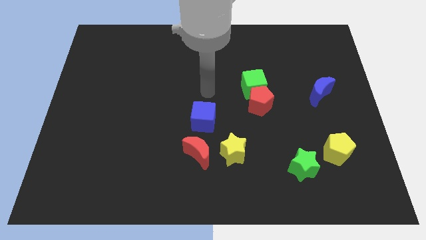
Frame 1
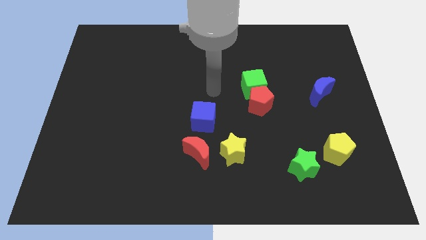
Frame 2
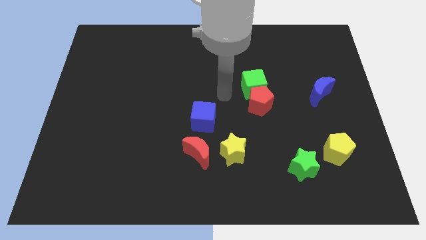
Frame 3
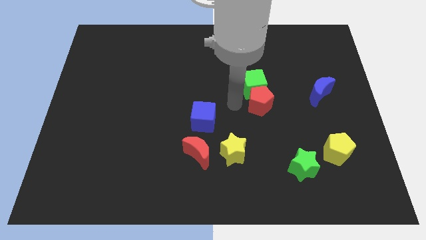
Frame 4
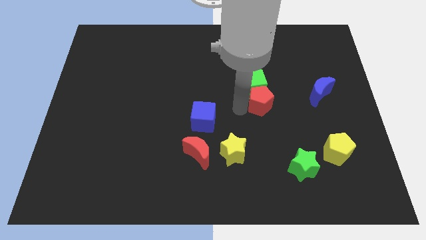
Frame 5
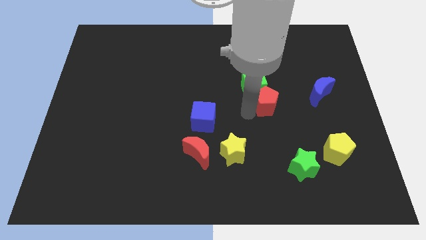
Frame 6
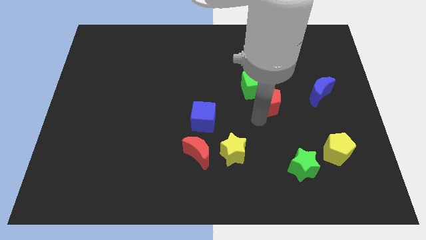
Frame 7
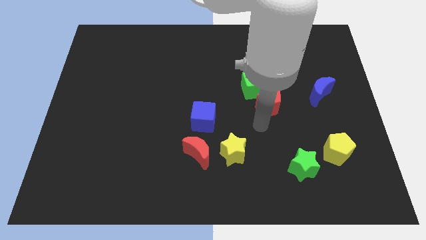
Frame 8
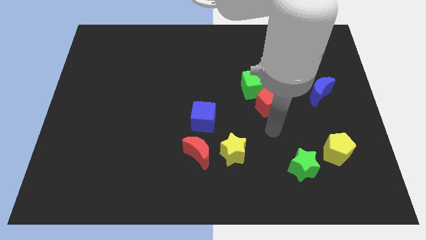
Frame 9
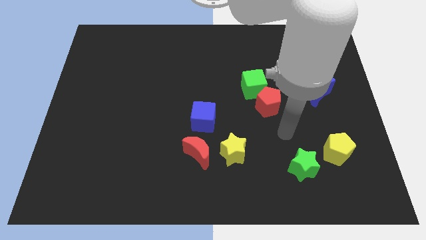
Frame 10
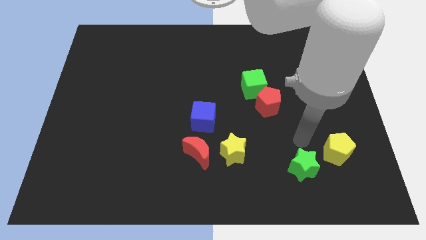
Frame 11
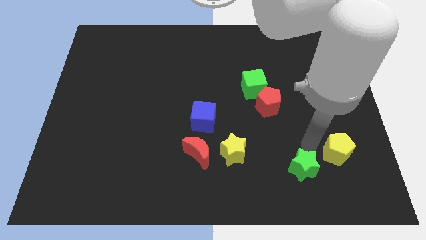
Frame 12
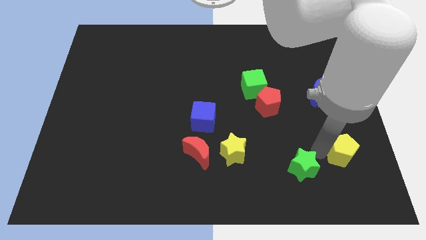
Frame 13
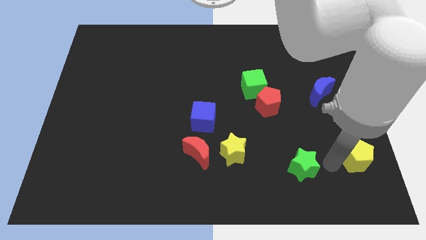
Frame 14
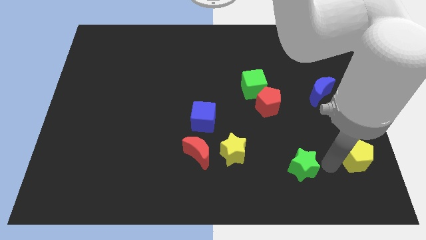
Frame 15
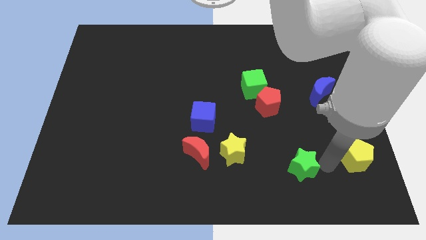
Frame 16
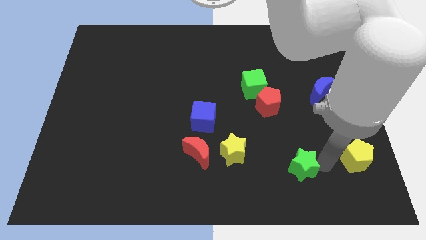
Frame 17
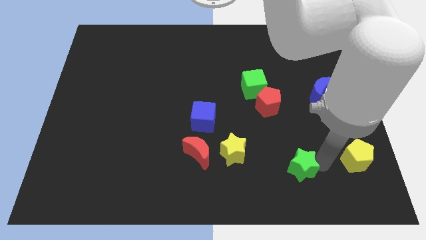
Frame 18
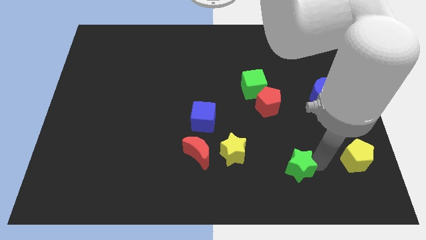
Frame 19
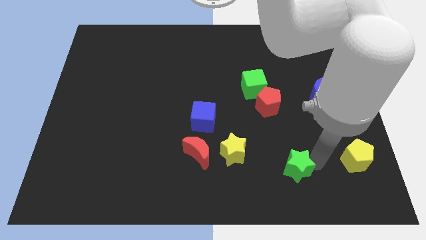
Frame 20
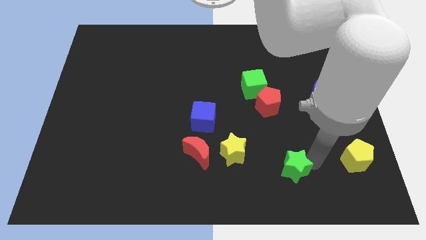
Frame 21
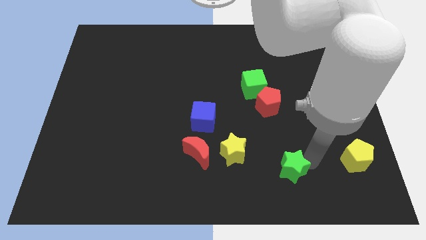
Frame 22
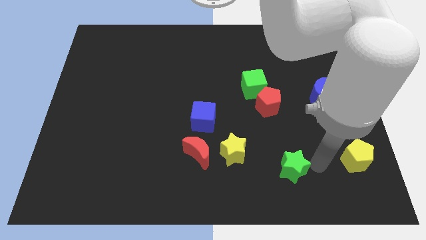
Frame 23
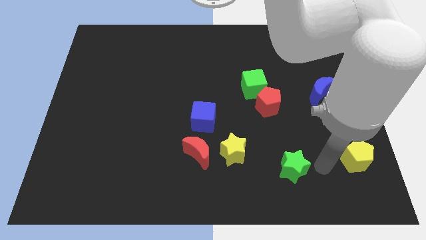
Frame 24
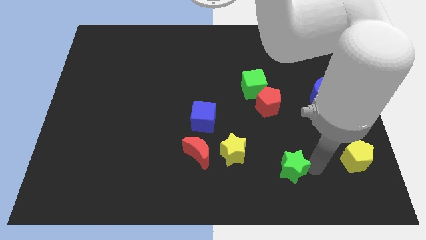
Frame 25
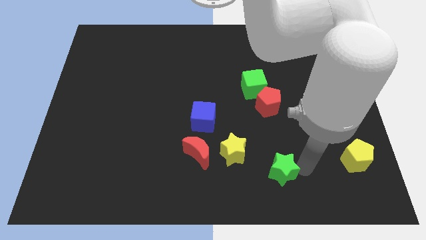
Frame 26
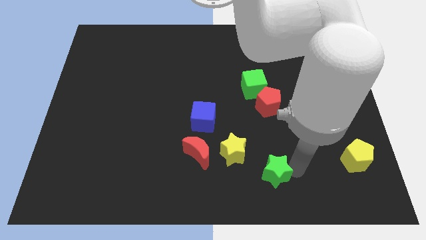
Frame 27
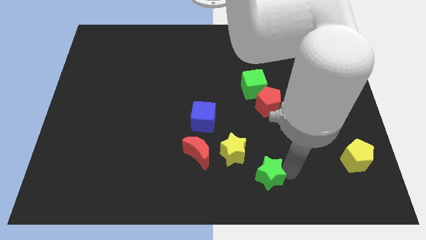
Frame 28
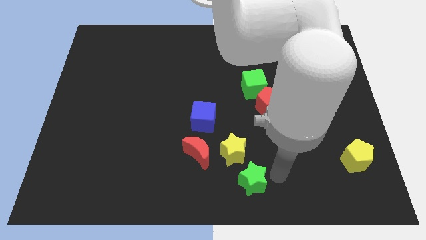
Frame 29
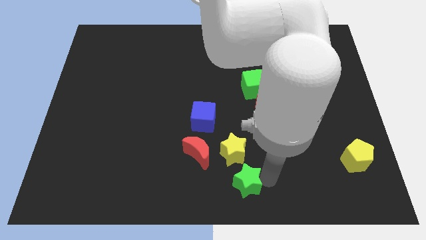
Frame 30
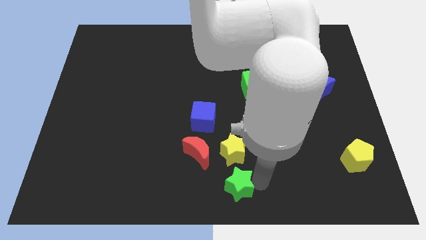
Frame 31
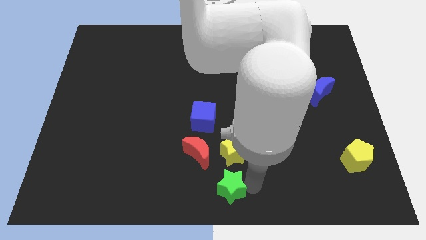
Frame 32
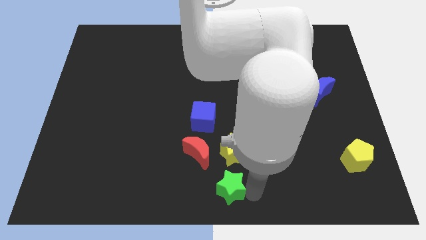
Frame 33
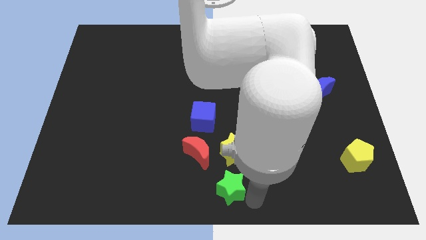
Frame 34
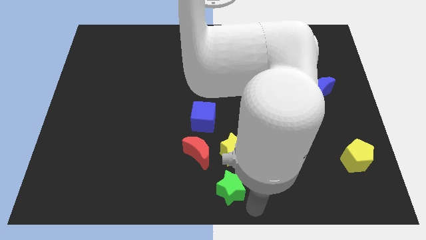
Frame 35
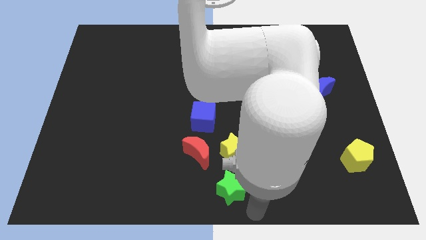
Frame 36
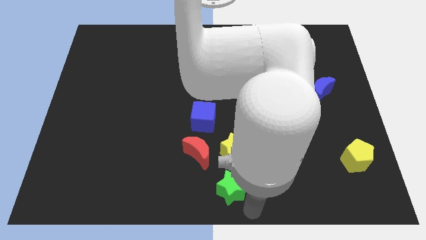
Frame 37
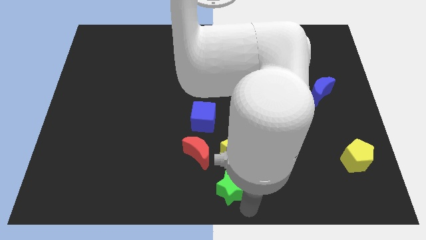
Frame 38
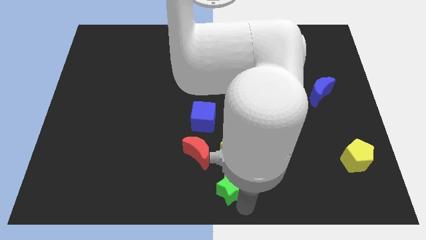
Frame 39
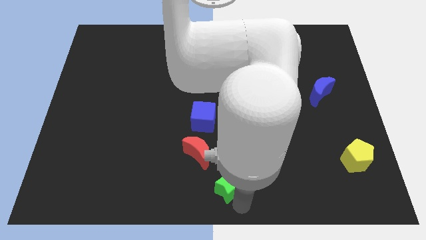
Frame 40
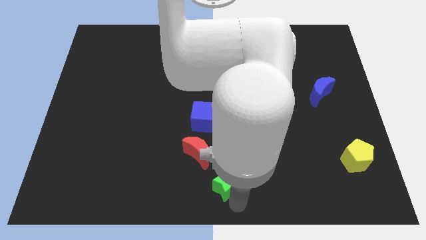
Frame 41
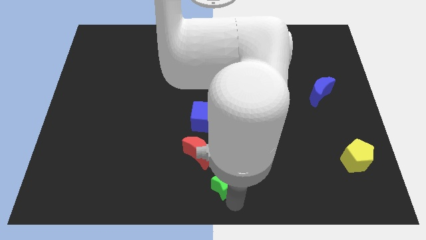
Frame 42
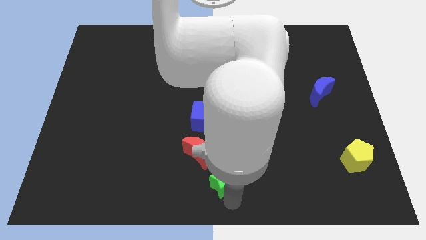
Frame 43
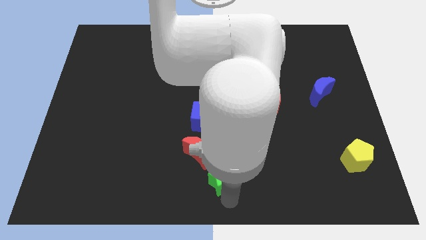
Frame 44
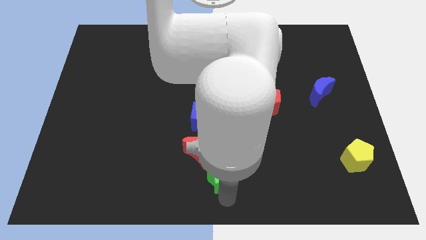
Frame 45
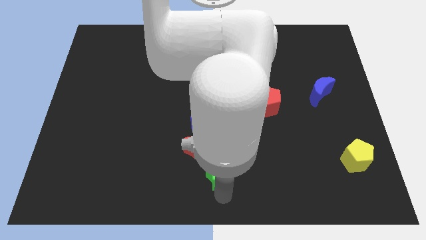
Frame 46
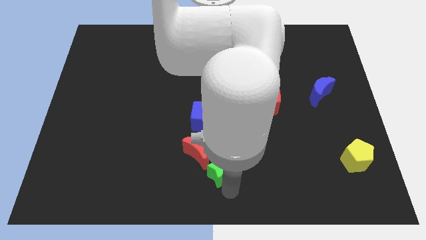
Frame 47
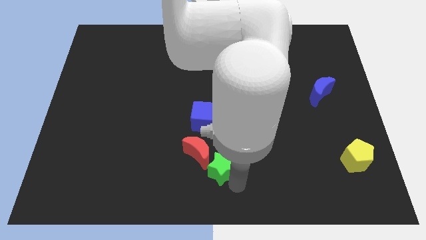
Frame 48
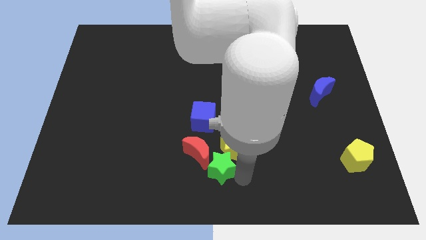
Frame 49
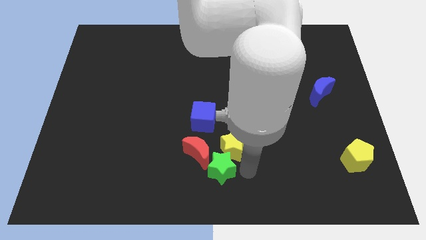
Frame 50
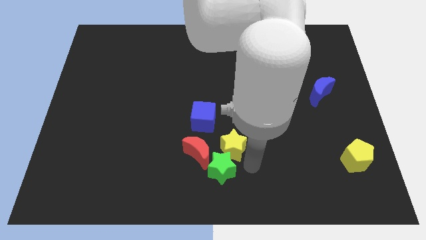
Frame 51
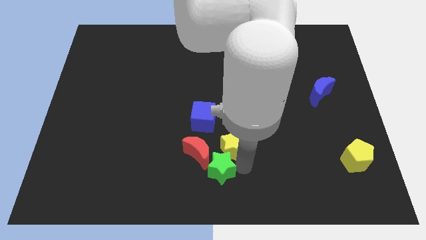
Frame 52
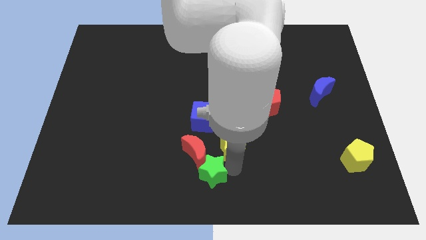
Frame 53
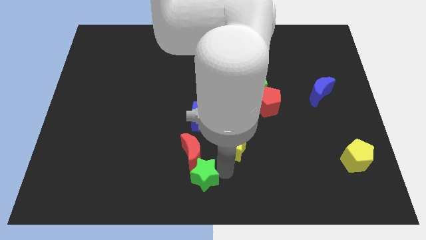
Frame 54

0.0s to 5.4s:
push the green star to the left

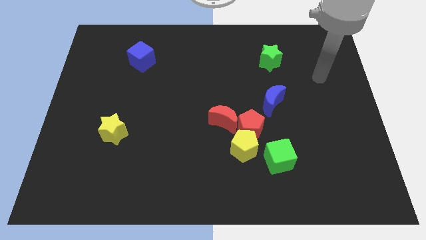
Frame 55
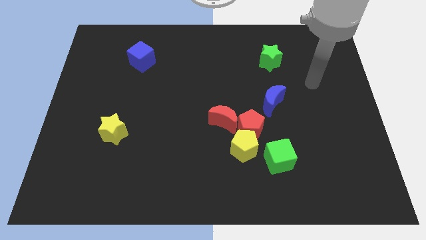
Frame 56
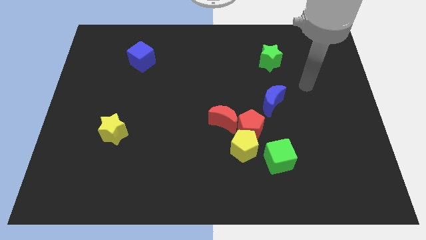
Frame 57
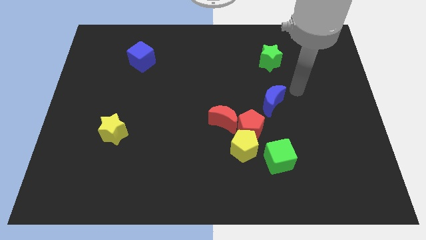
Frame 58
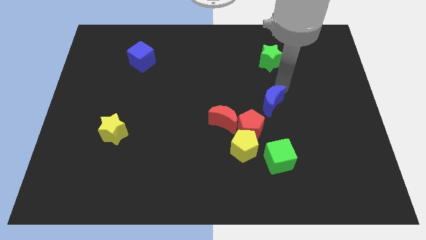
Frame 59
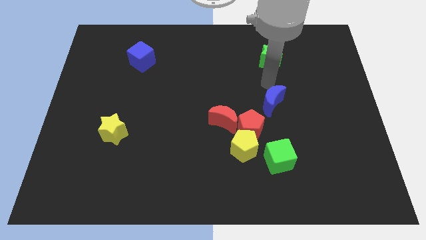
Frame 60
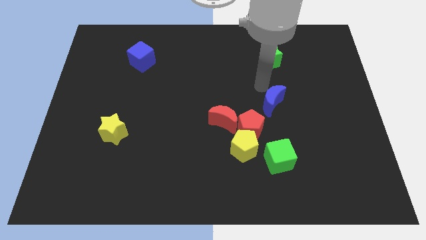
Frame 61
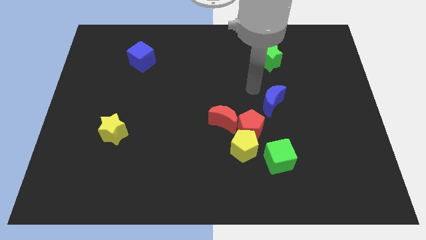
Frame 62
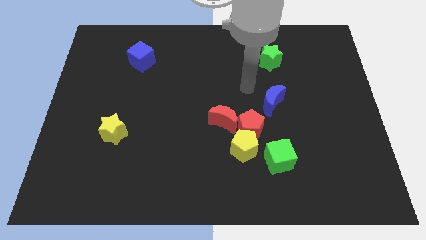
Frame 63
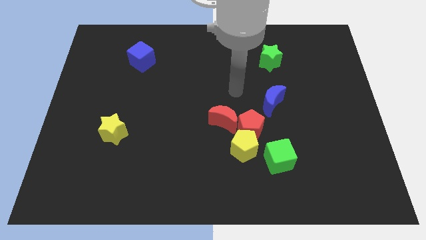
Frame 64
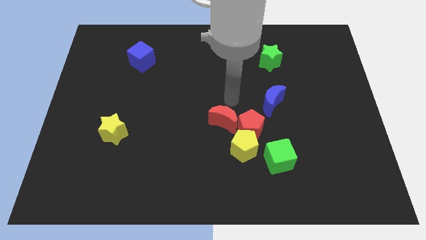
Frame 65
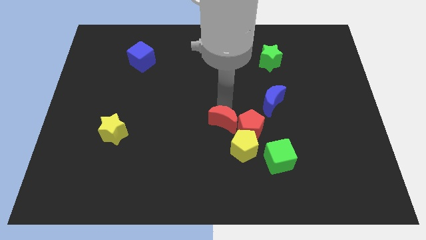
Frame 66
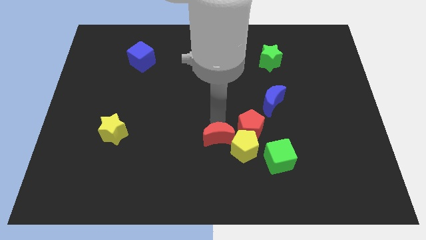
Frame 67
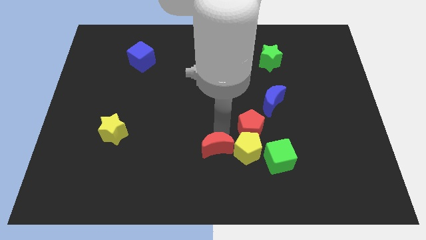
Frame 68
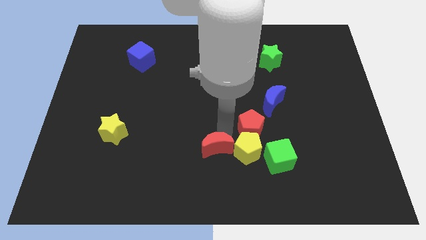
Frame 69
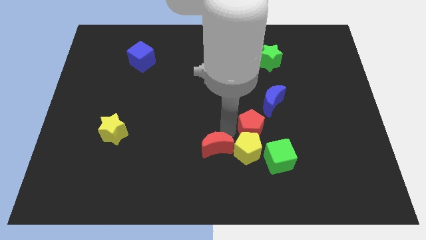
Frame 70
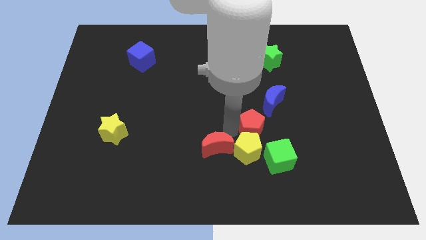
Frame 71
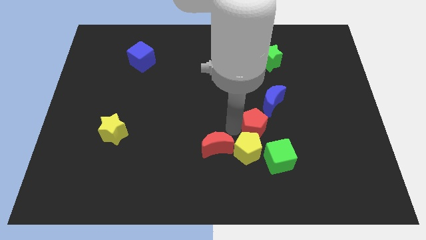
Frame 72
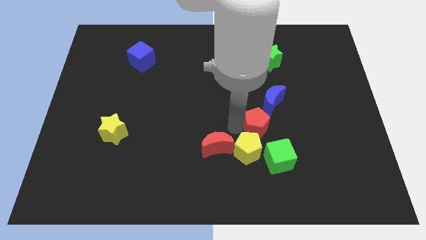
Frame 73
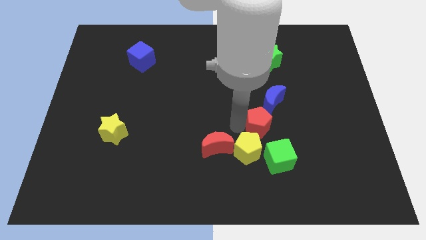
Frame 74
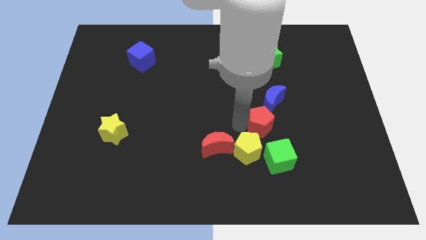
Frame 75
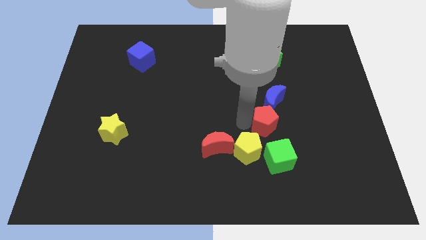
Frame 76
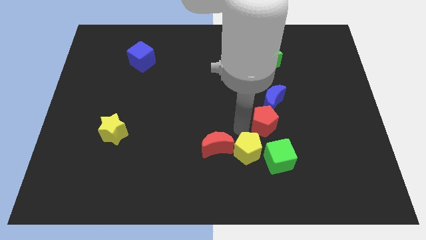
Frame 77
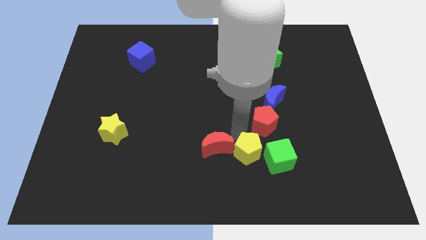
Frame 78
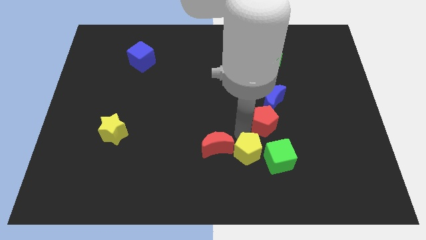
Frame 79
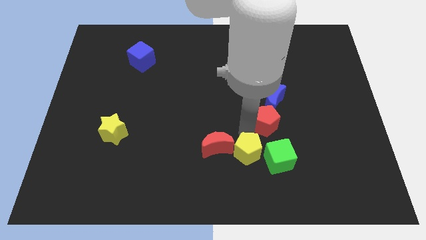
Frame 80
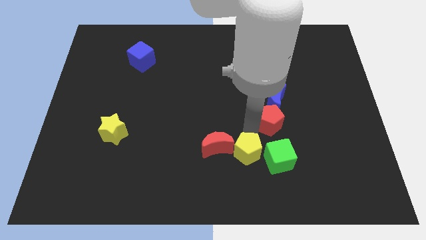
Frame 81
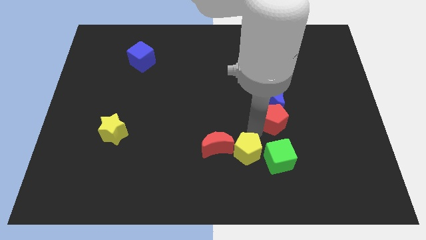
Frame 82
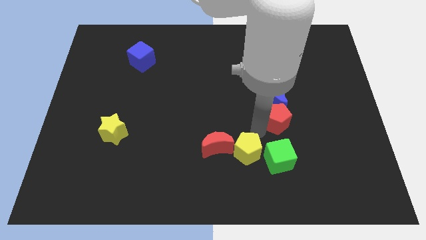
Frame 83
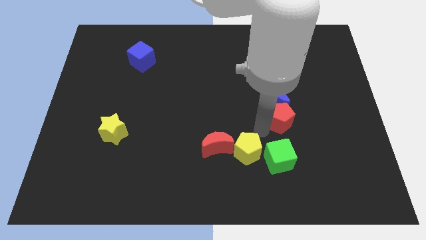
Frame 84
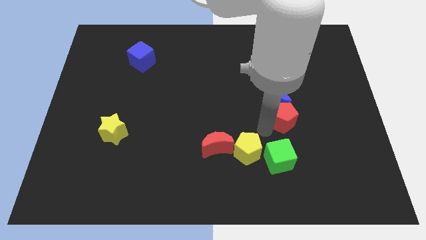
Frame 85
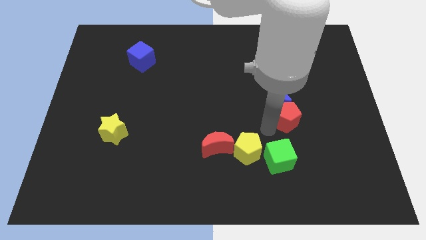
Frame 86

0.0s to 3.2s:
push the red pentagon a little bit up and then to the right
